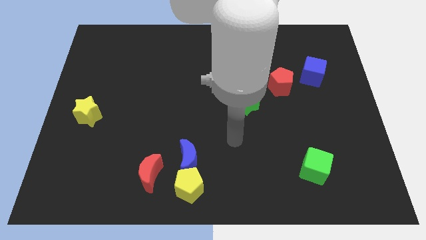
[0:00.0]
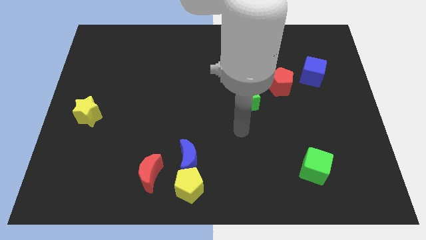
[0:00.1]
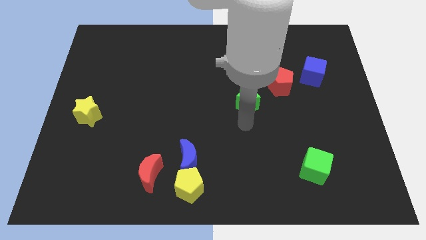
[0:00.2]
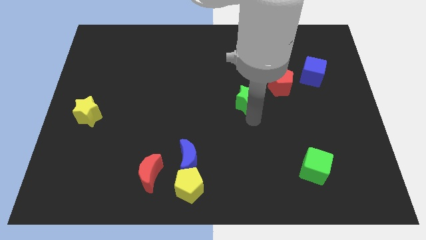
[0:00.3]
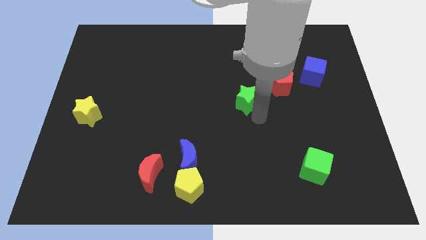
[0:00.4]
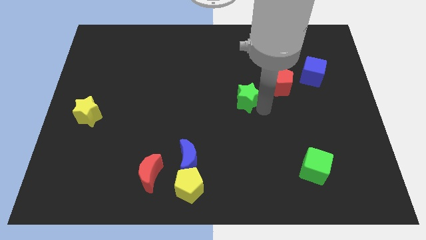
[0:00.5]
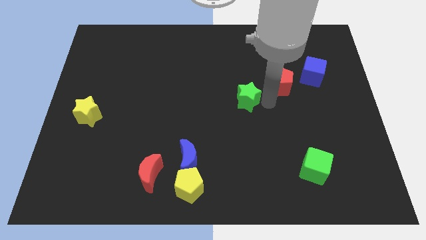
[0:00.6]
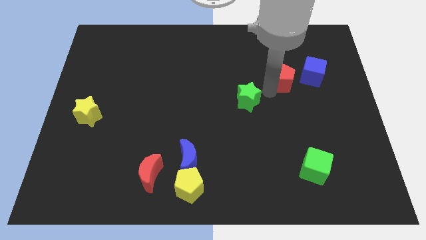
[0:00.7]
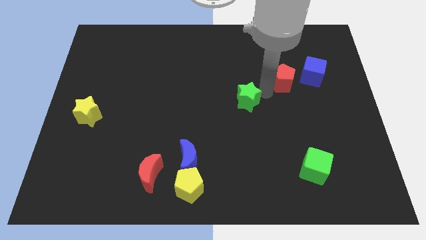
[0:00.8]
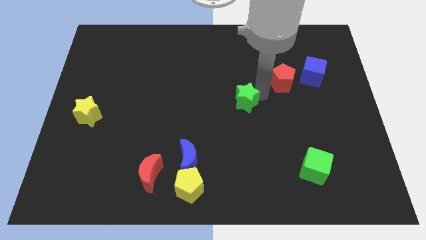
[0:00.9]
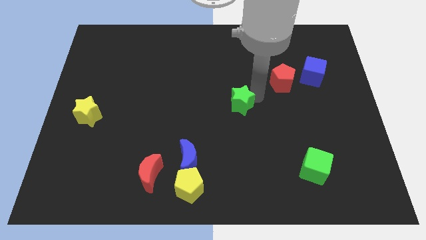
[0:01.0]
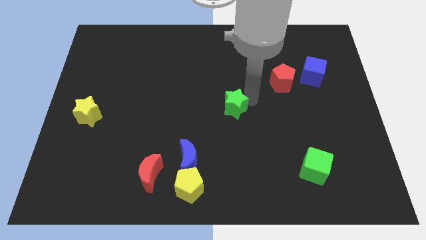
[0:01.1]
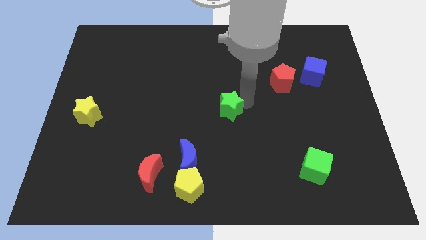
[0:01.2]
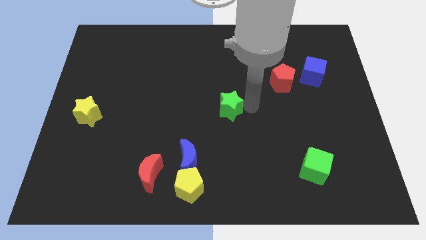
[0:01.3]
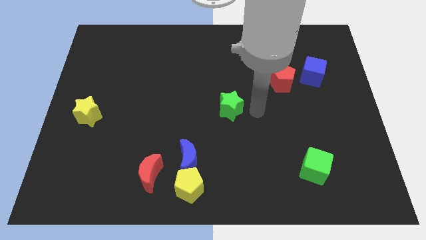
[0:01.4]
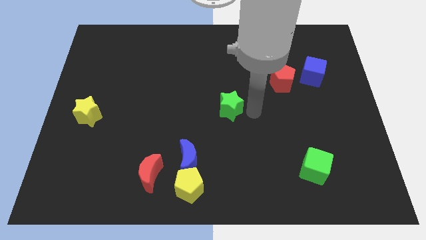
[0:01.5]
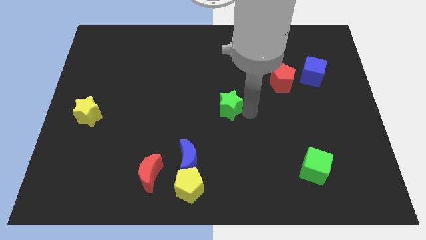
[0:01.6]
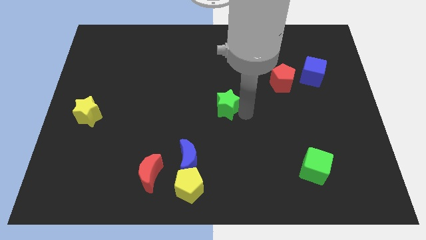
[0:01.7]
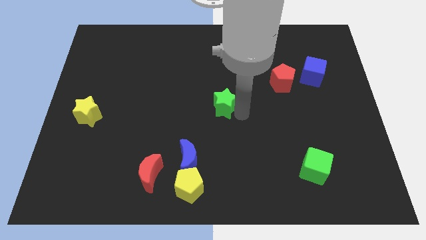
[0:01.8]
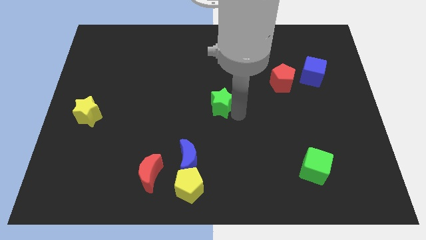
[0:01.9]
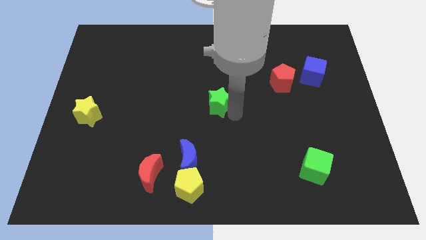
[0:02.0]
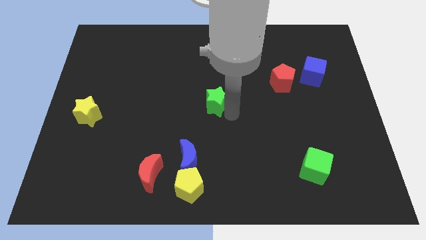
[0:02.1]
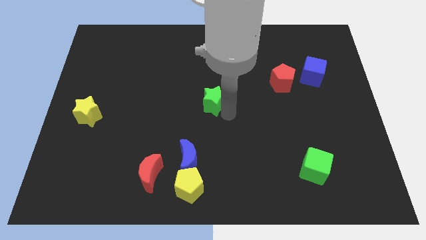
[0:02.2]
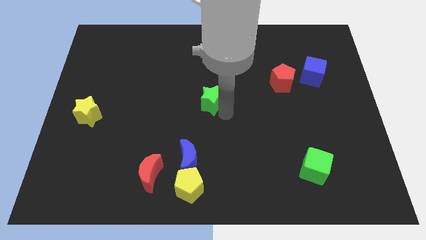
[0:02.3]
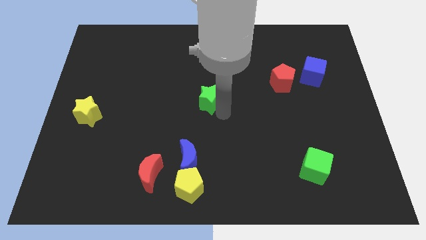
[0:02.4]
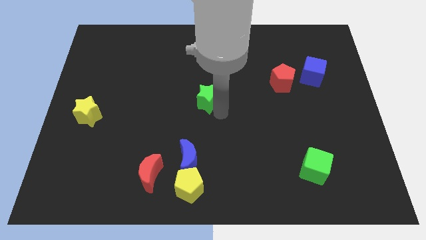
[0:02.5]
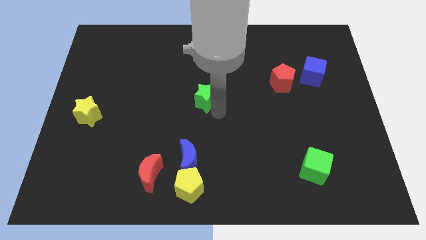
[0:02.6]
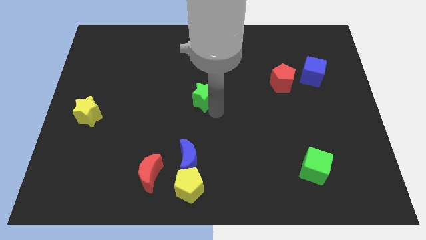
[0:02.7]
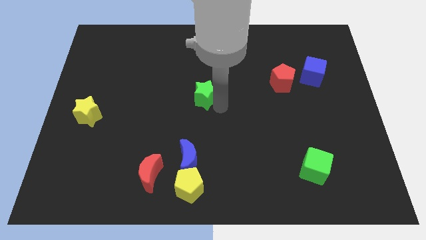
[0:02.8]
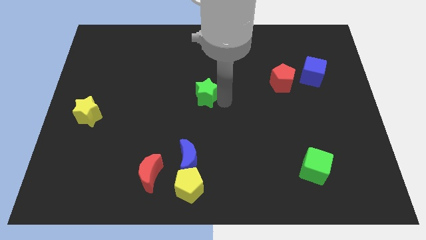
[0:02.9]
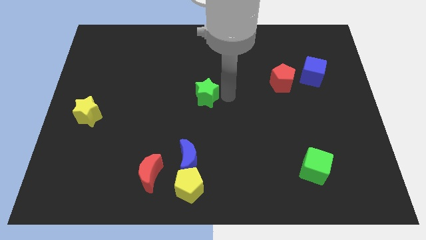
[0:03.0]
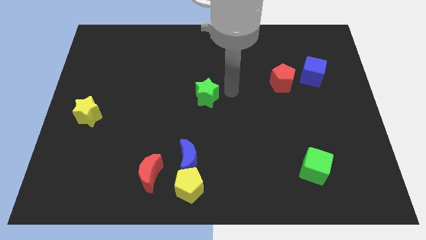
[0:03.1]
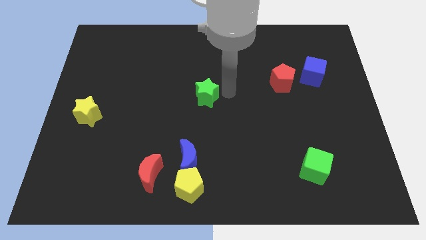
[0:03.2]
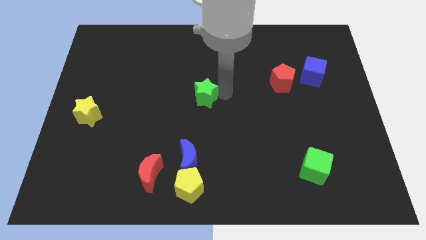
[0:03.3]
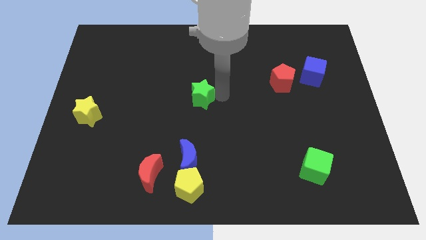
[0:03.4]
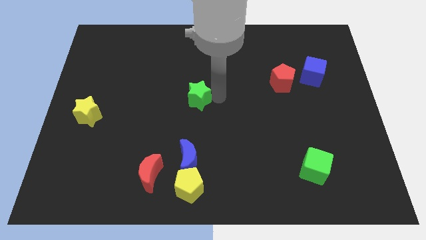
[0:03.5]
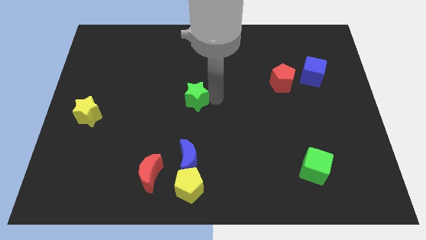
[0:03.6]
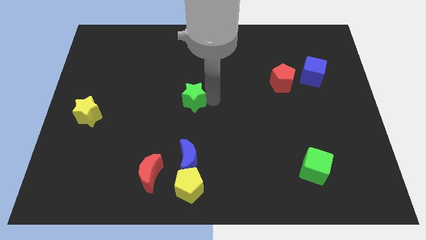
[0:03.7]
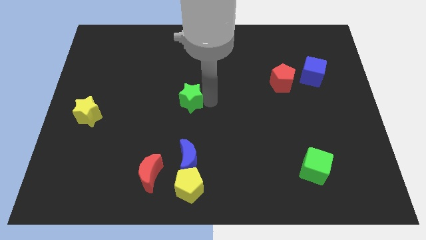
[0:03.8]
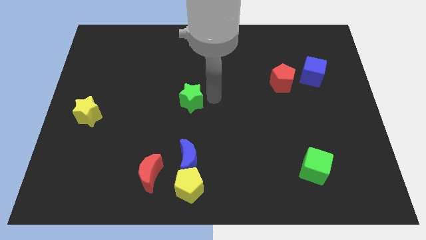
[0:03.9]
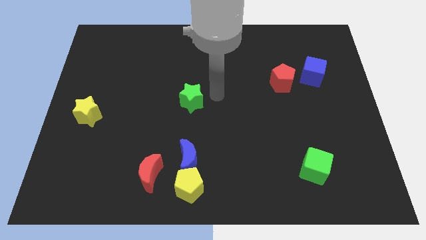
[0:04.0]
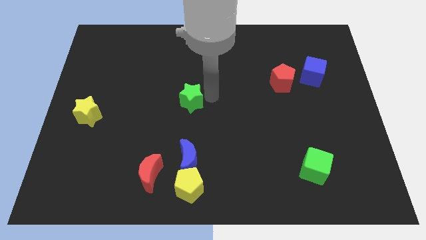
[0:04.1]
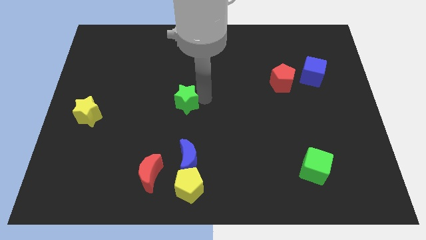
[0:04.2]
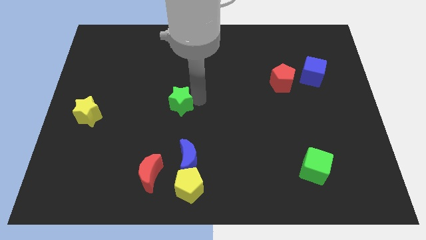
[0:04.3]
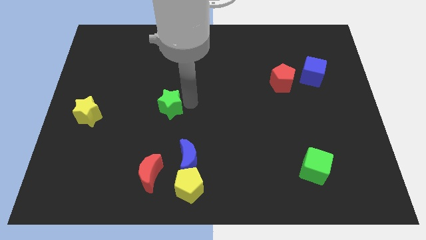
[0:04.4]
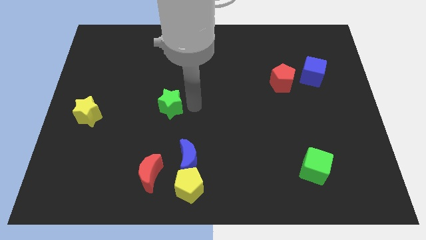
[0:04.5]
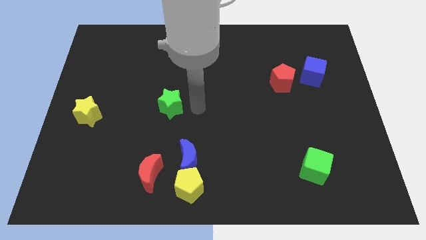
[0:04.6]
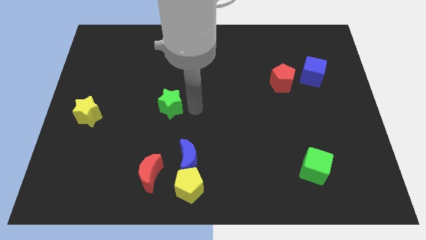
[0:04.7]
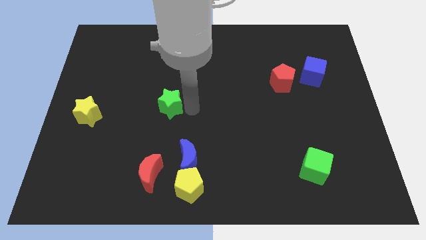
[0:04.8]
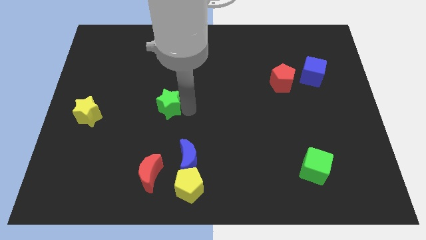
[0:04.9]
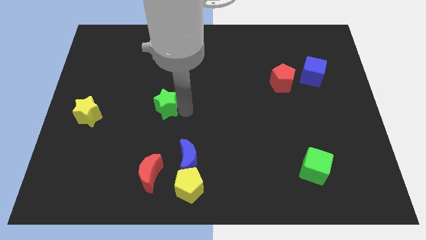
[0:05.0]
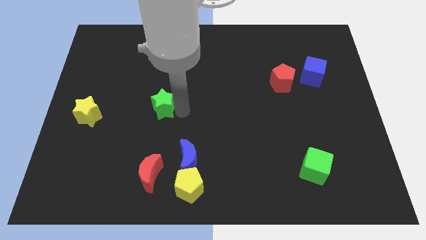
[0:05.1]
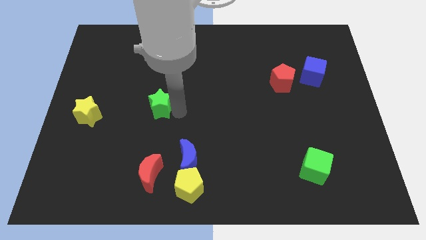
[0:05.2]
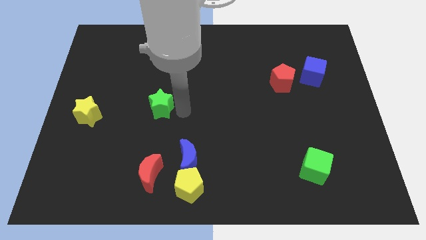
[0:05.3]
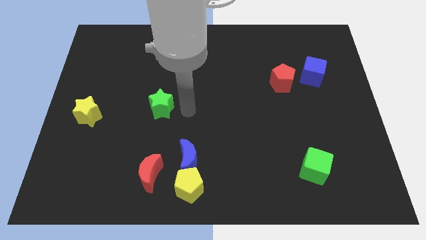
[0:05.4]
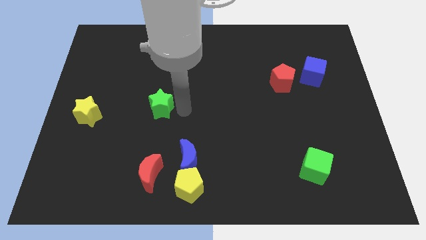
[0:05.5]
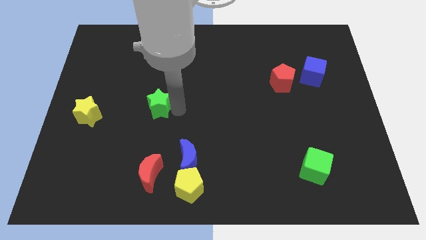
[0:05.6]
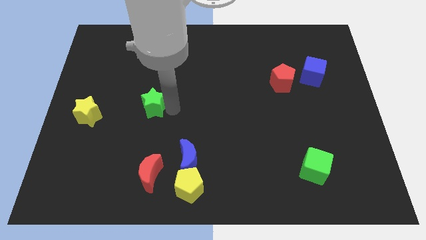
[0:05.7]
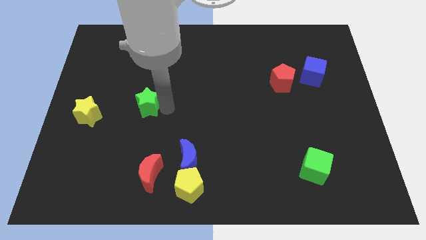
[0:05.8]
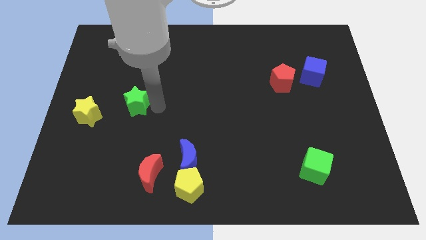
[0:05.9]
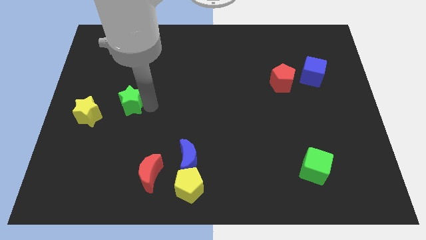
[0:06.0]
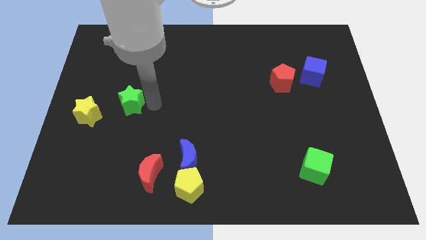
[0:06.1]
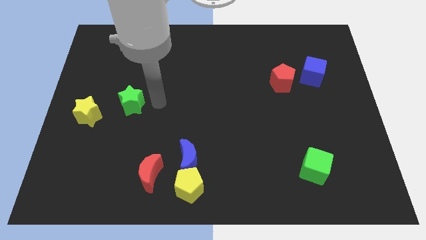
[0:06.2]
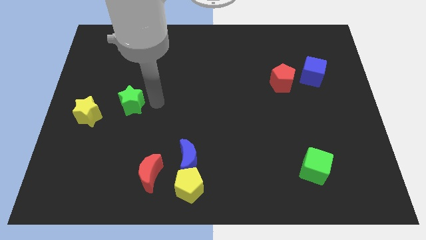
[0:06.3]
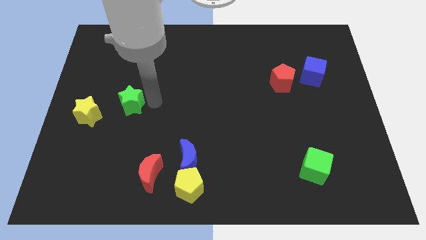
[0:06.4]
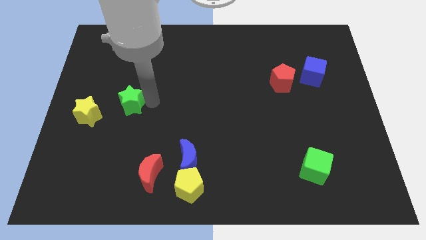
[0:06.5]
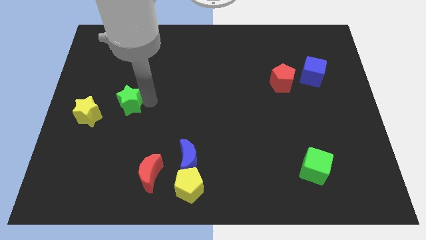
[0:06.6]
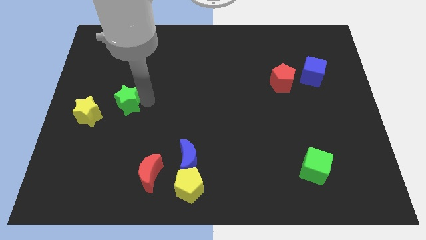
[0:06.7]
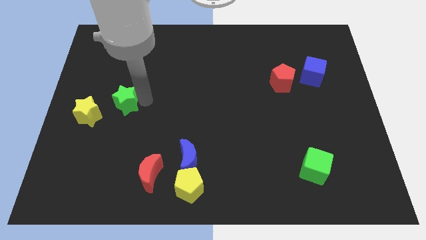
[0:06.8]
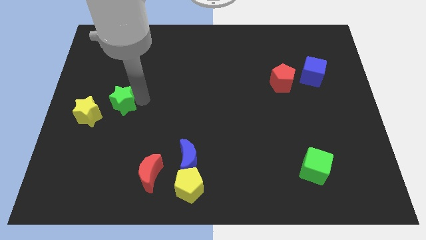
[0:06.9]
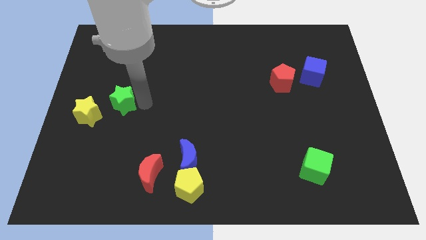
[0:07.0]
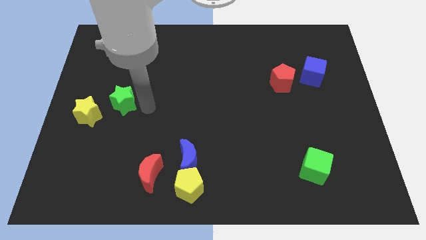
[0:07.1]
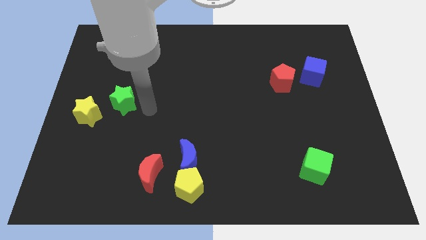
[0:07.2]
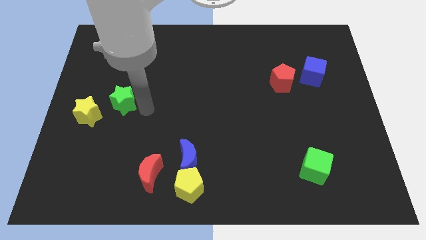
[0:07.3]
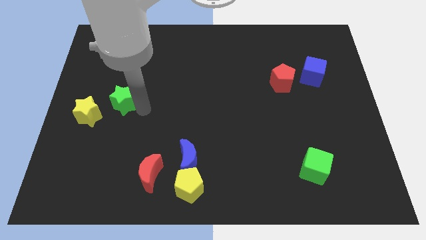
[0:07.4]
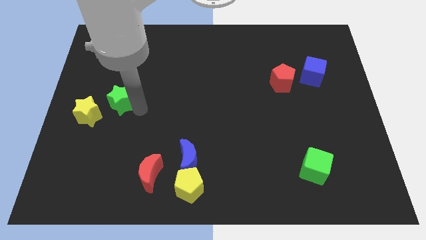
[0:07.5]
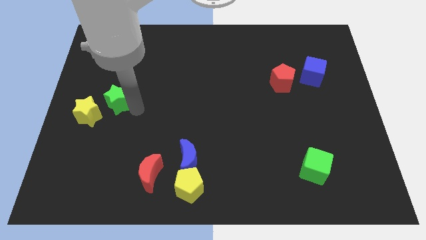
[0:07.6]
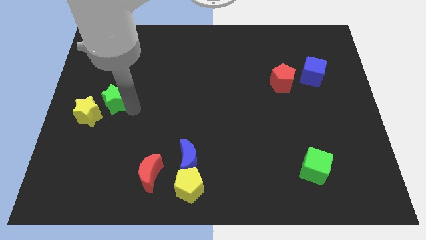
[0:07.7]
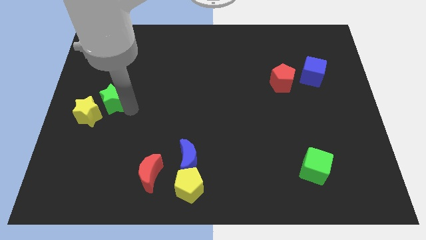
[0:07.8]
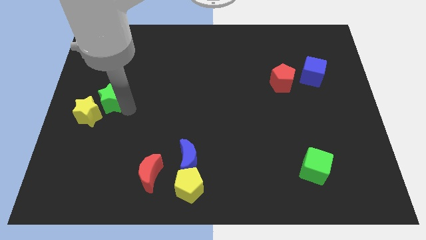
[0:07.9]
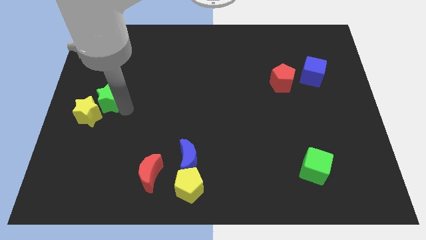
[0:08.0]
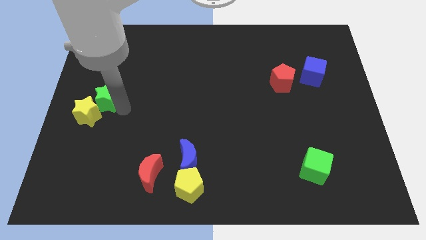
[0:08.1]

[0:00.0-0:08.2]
push the green star to the center left
